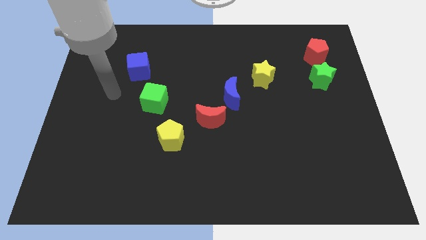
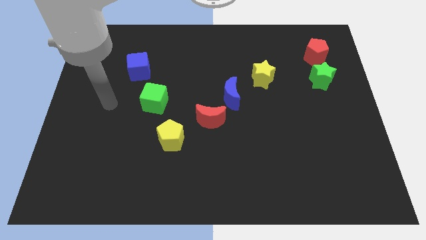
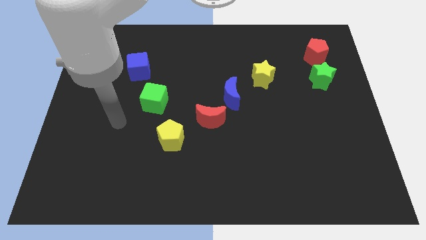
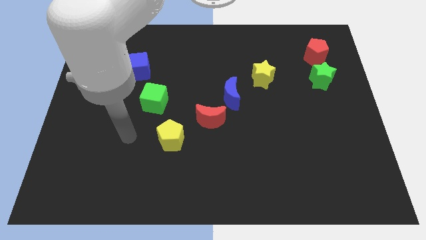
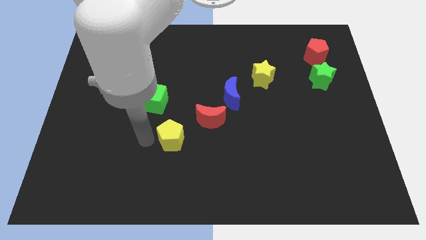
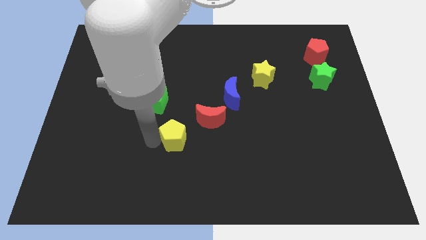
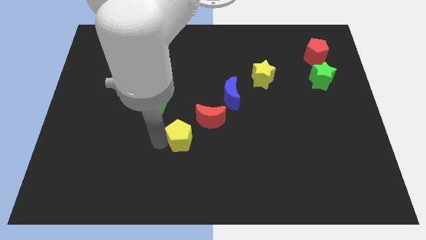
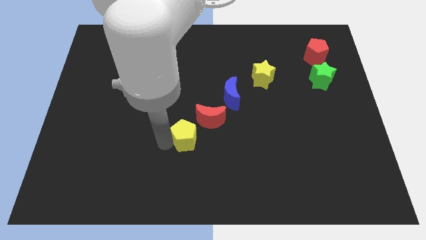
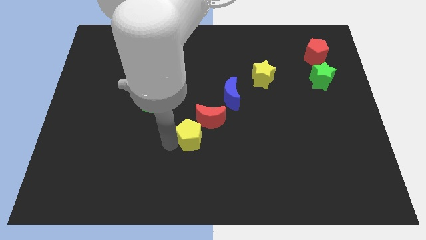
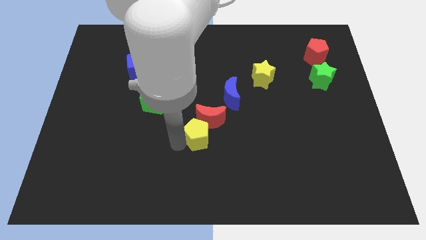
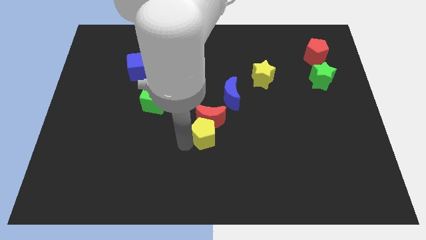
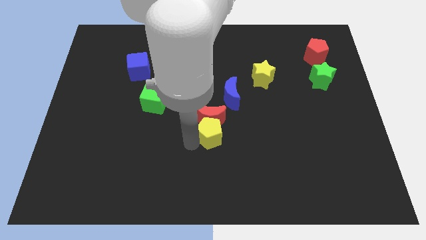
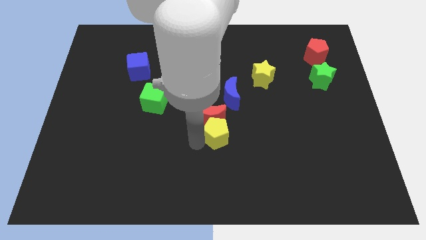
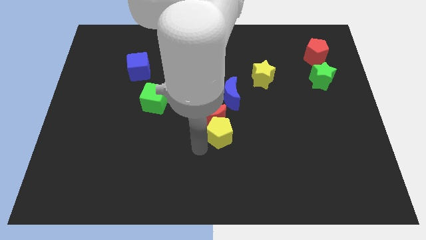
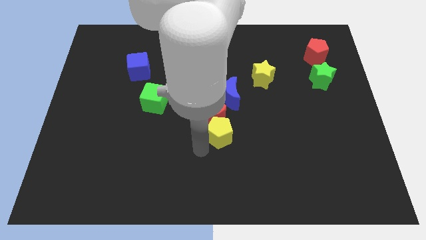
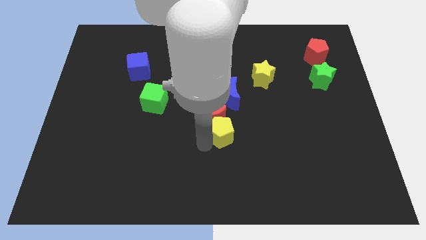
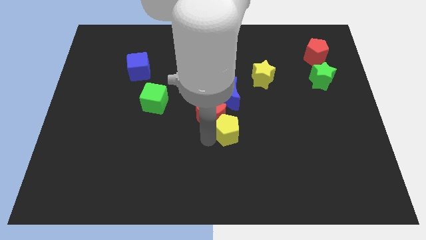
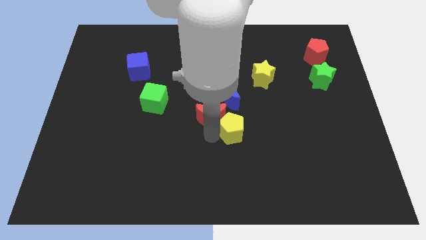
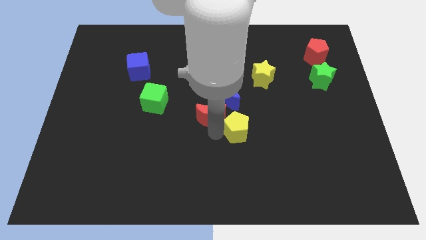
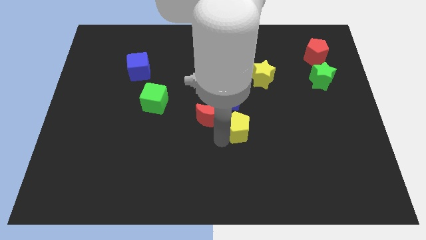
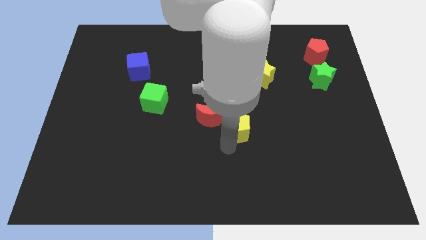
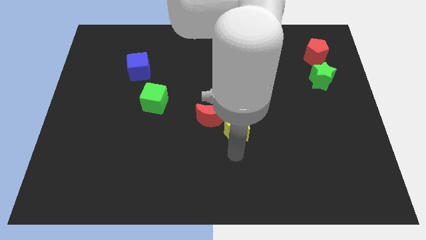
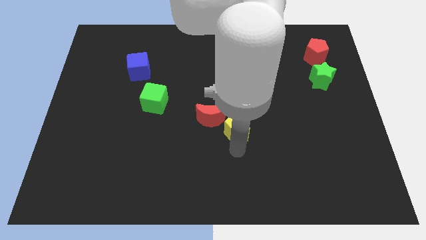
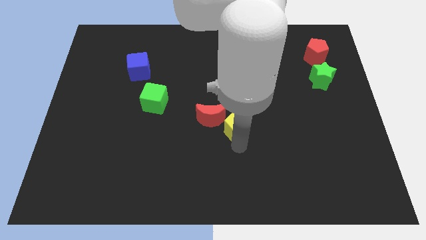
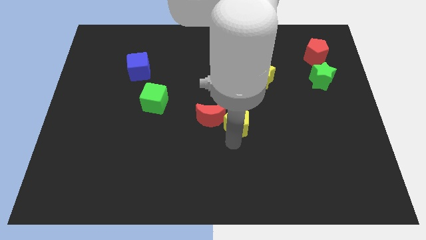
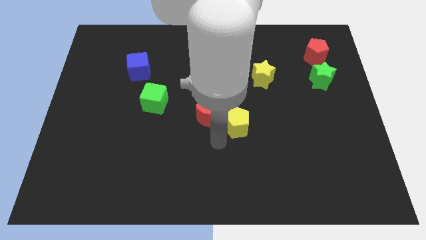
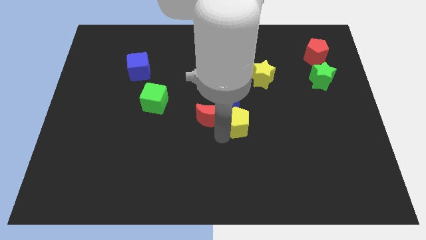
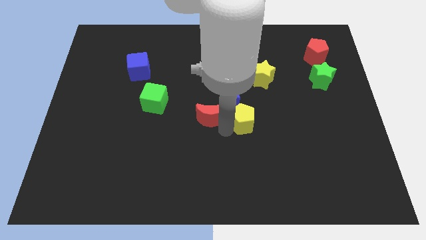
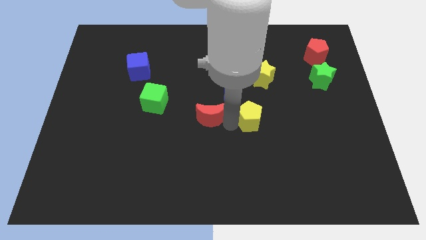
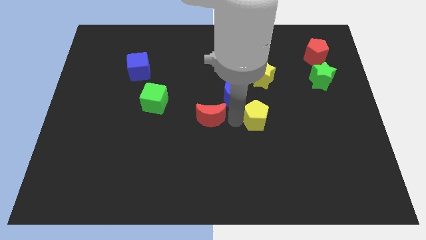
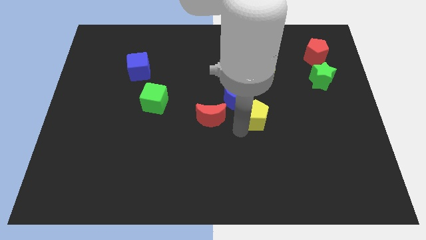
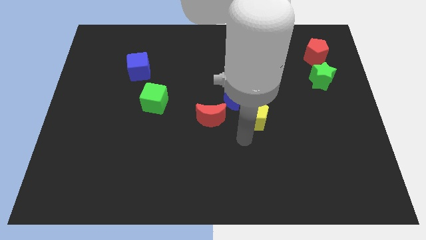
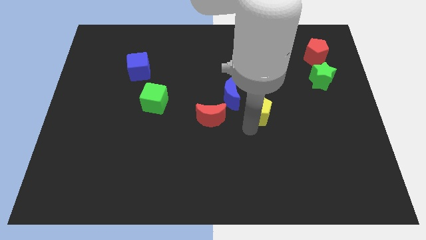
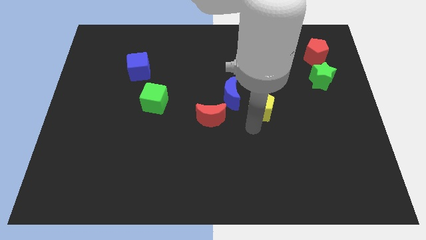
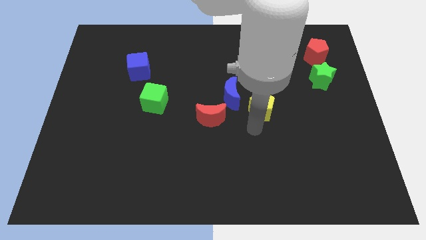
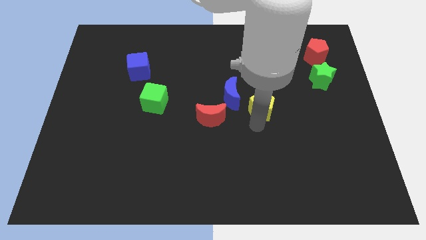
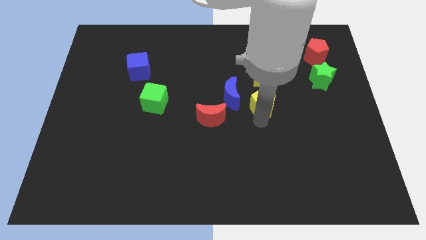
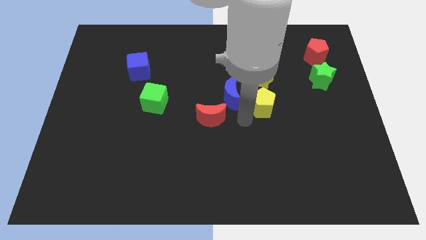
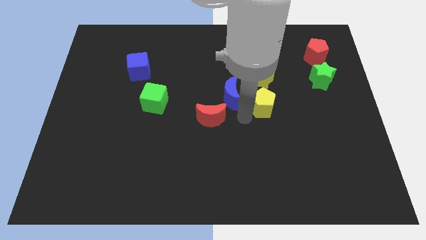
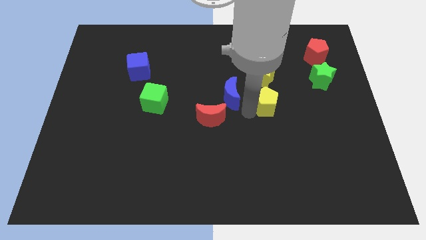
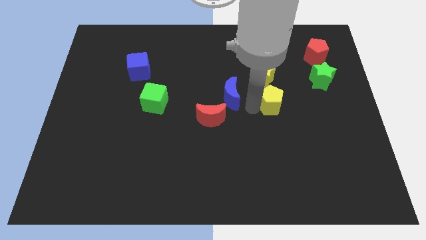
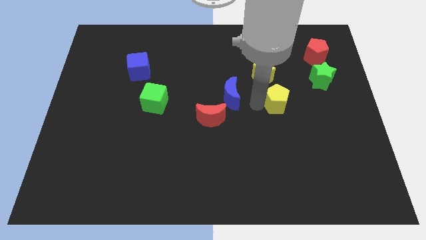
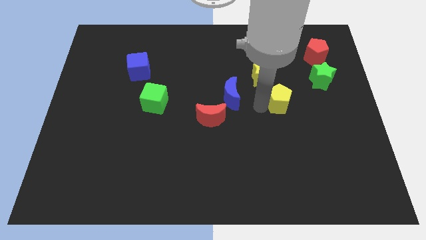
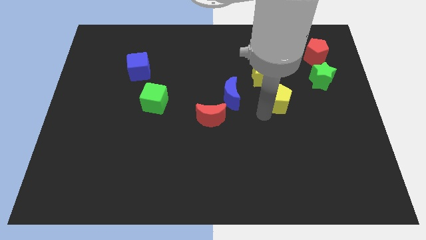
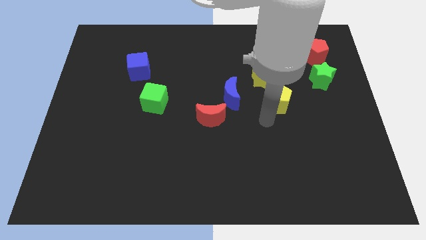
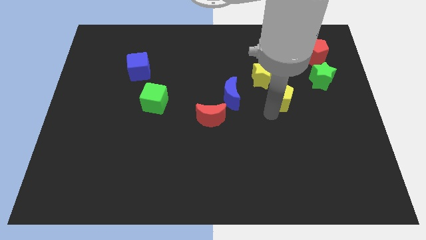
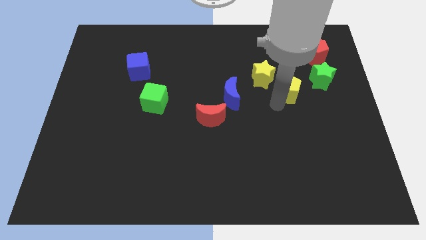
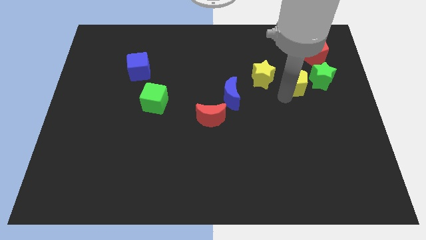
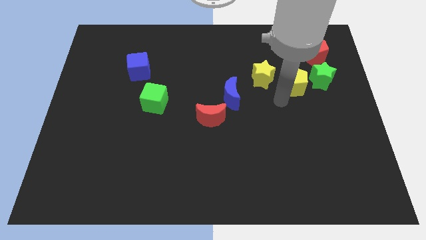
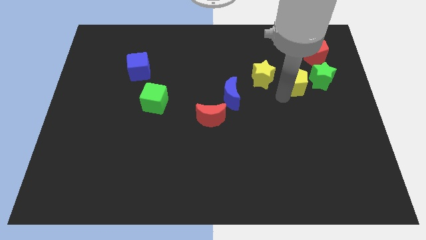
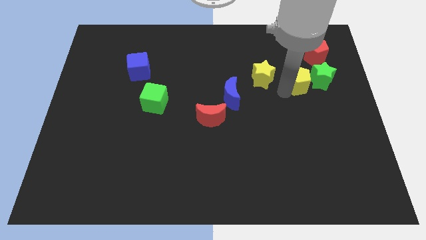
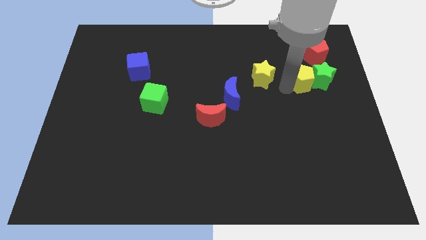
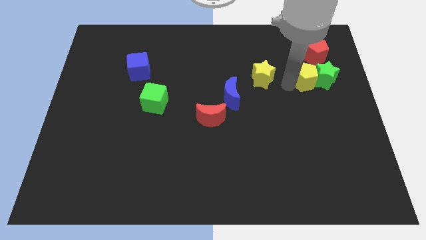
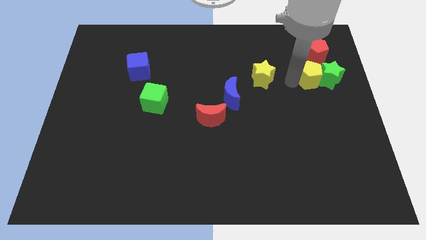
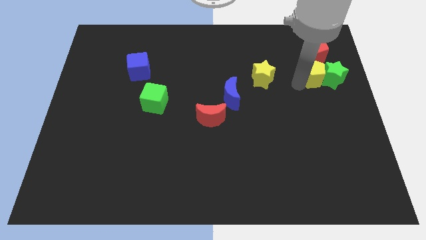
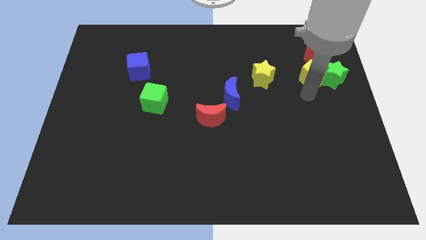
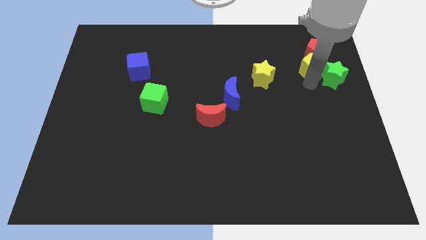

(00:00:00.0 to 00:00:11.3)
push the yellow pentagon to the red pentagon

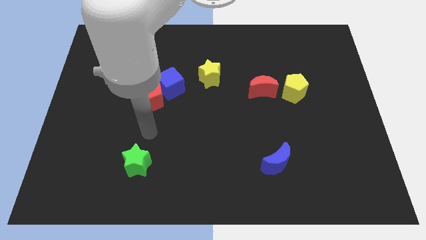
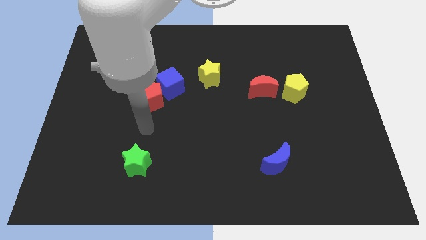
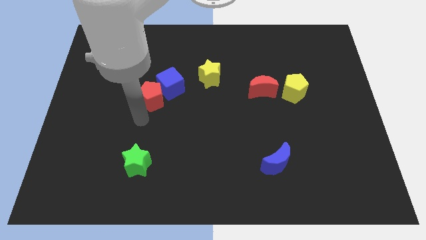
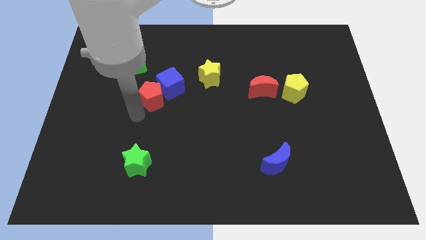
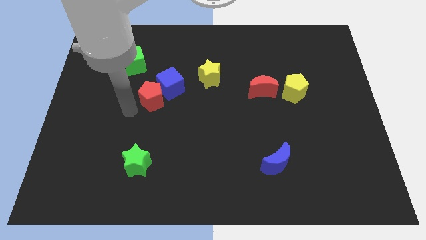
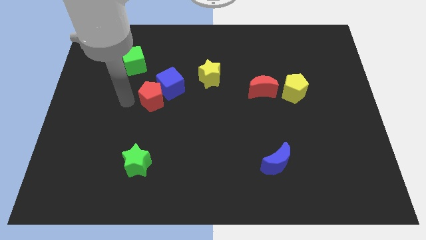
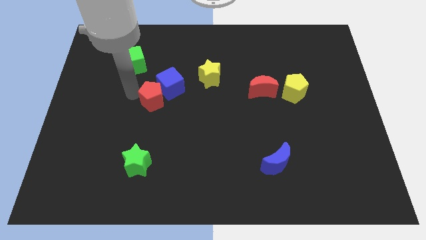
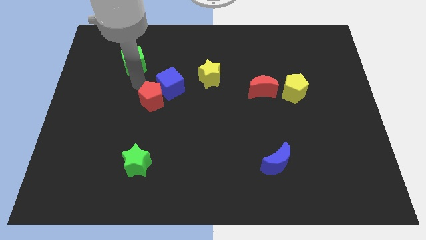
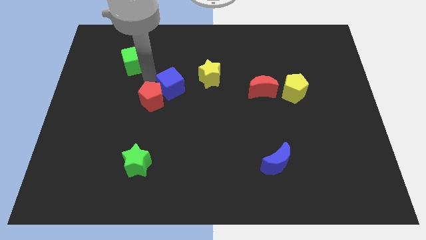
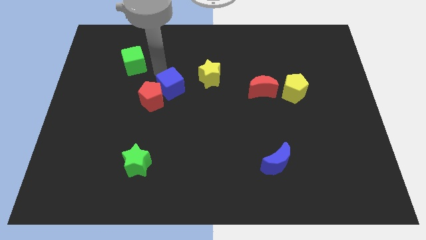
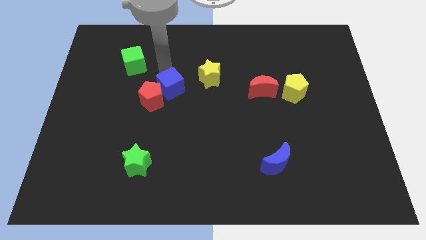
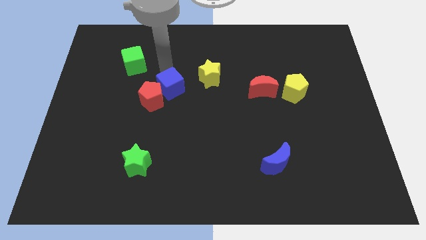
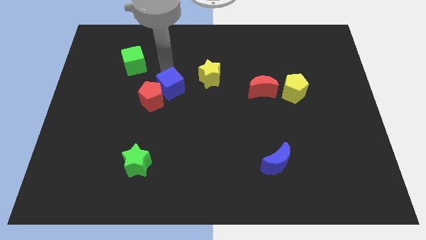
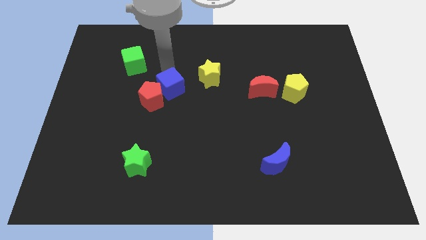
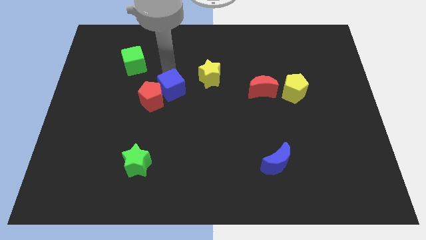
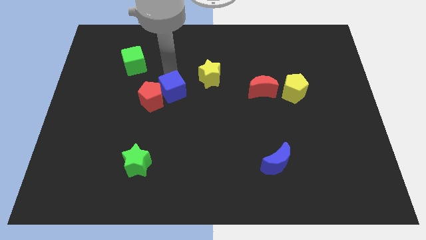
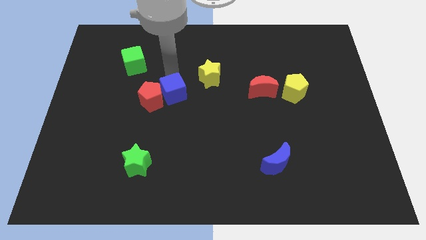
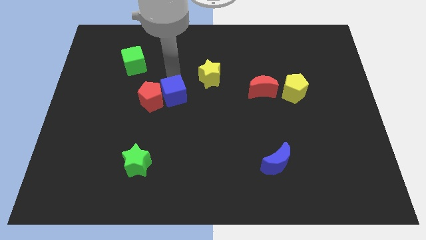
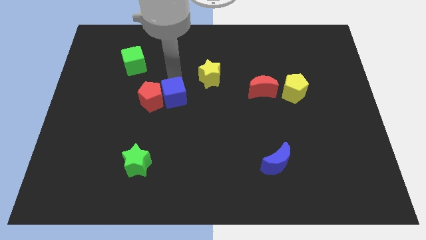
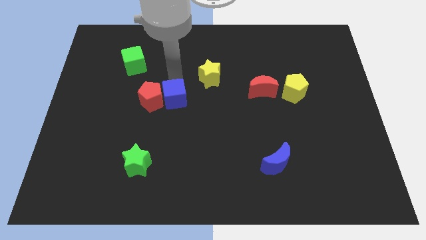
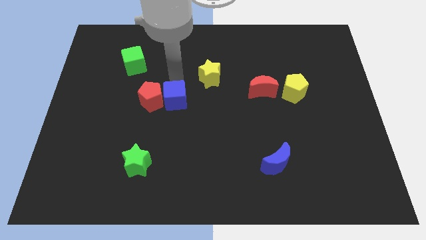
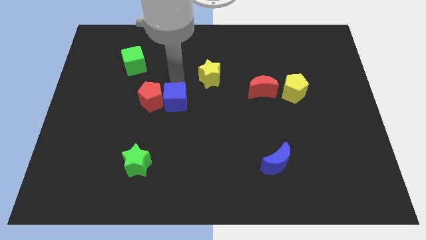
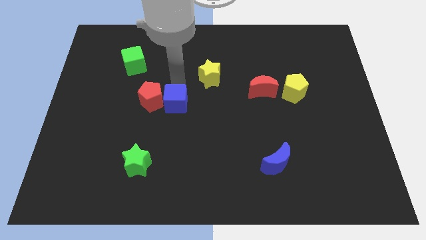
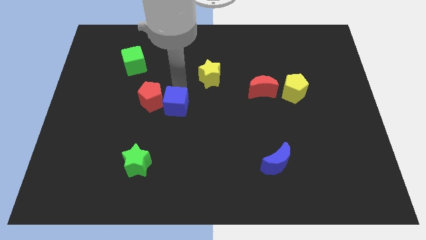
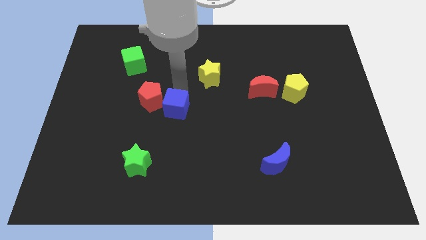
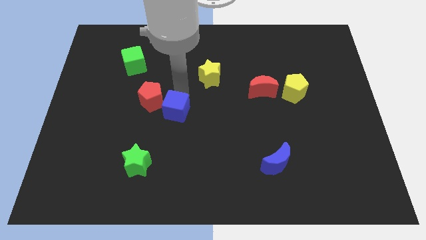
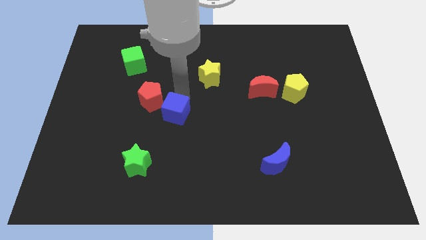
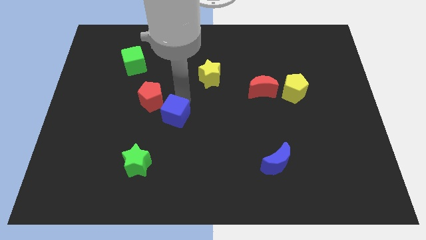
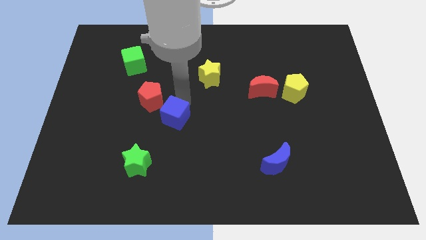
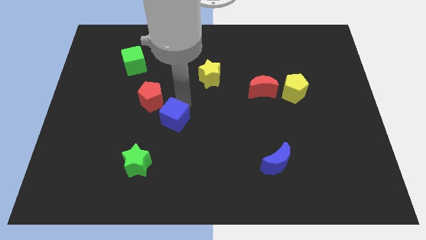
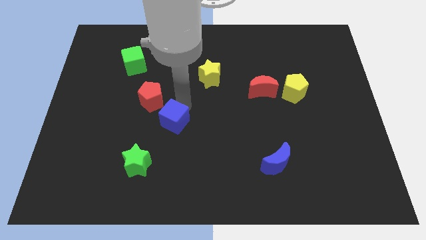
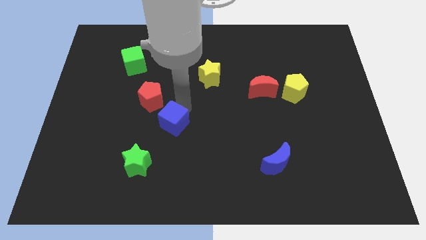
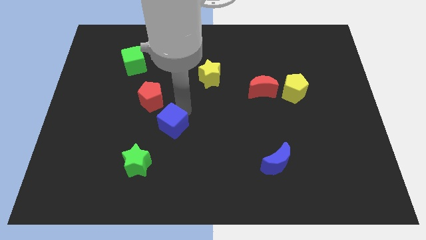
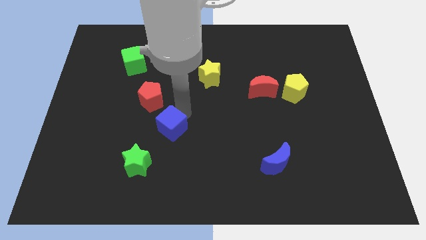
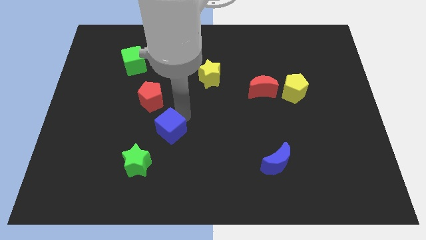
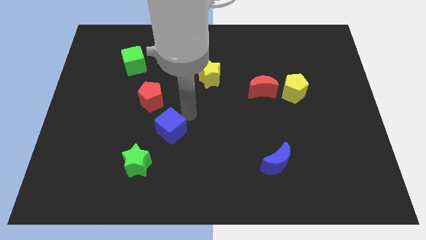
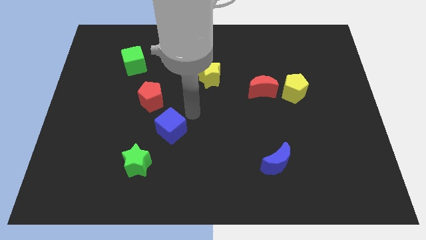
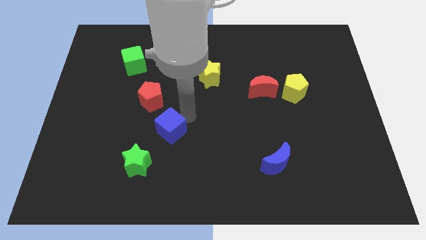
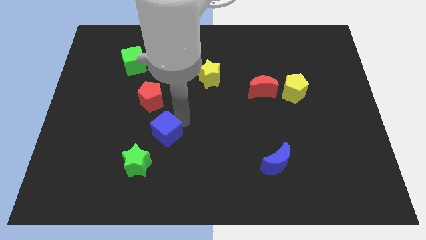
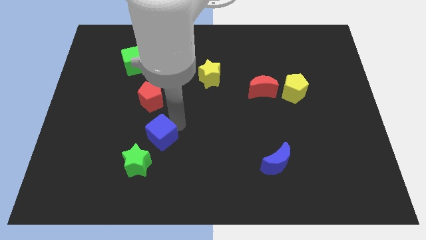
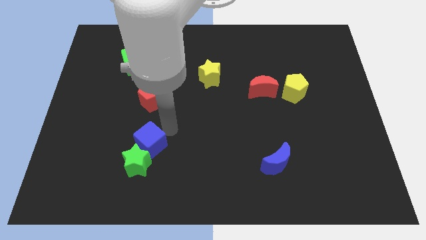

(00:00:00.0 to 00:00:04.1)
put the blue cube next to the green star
